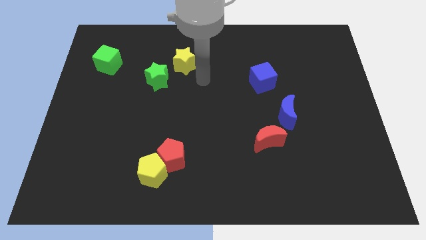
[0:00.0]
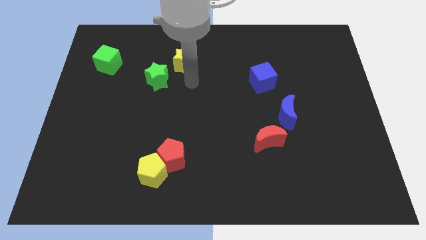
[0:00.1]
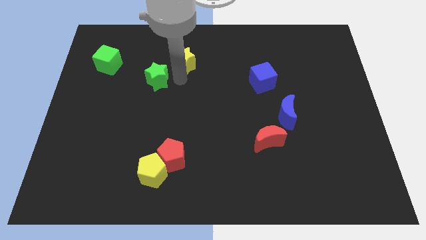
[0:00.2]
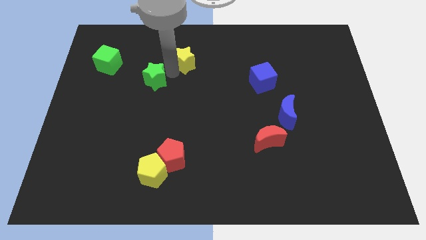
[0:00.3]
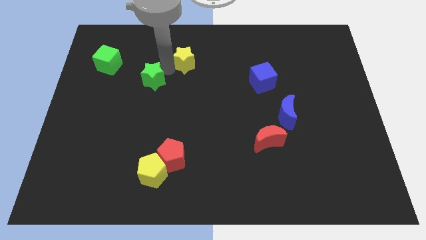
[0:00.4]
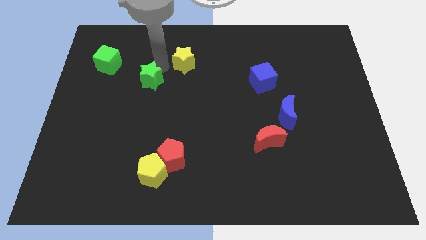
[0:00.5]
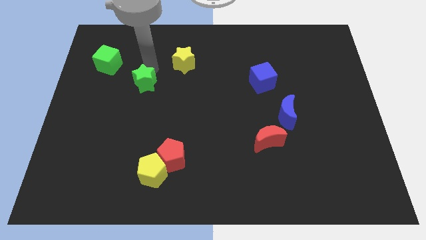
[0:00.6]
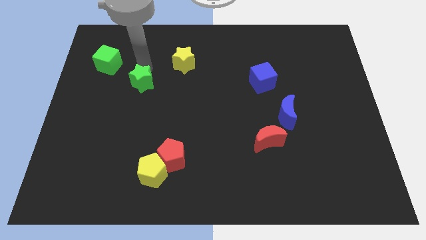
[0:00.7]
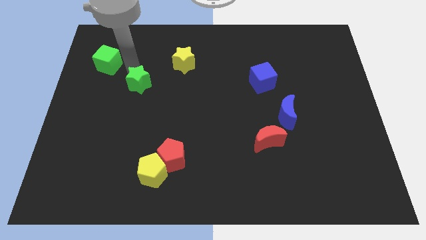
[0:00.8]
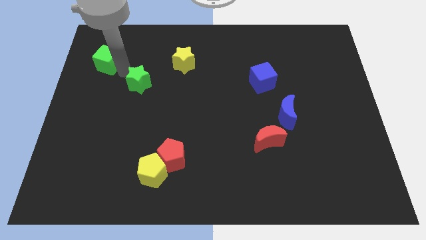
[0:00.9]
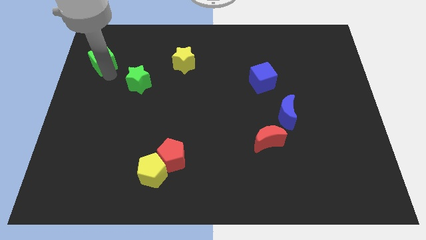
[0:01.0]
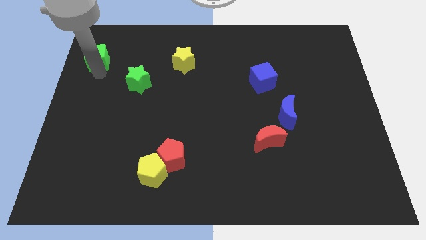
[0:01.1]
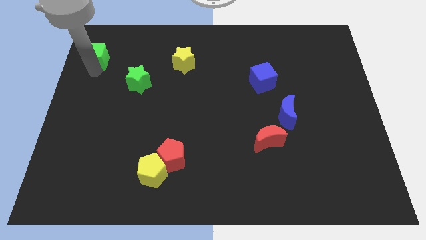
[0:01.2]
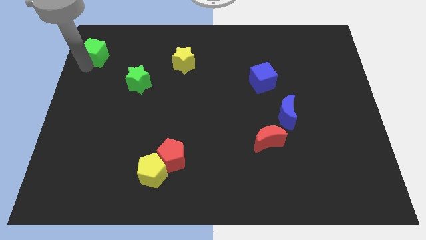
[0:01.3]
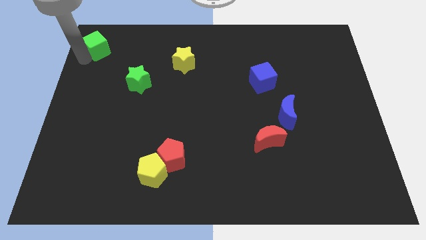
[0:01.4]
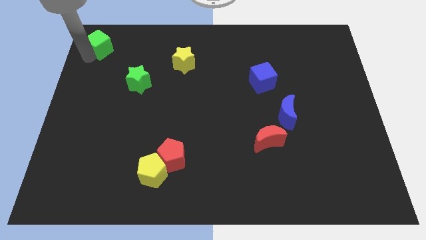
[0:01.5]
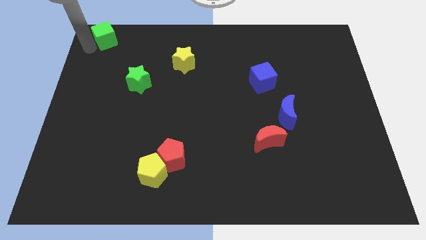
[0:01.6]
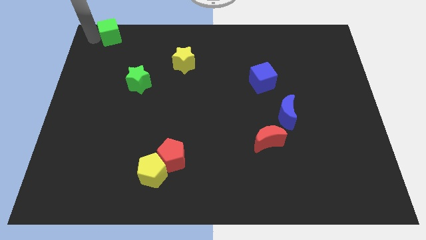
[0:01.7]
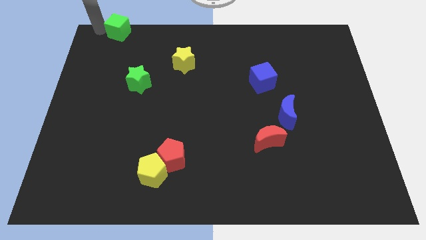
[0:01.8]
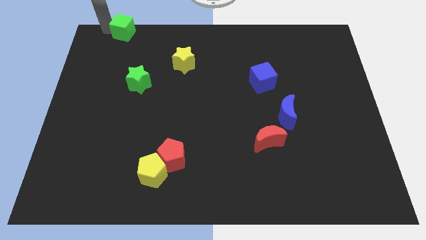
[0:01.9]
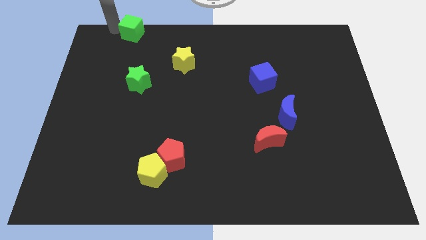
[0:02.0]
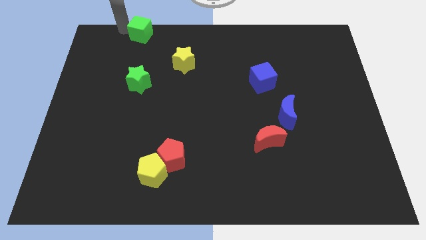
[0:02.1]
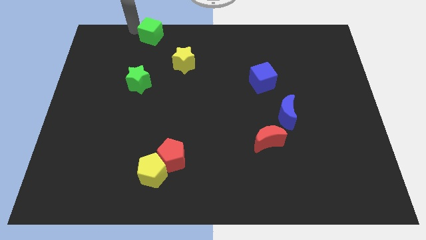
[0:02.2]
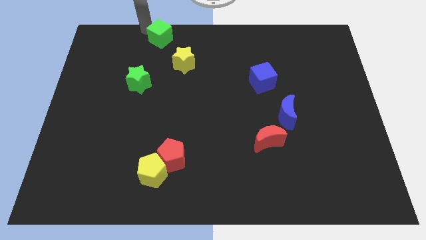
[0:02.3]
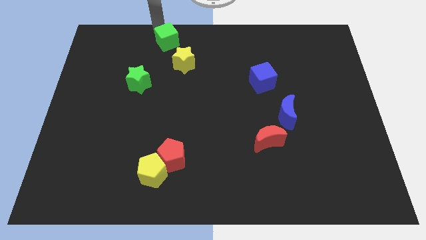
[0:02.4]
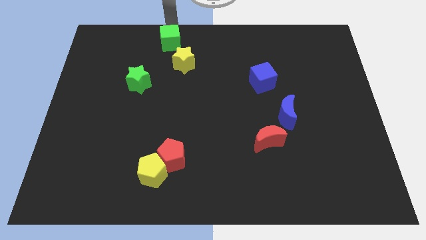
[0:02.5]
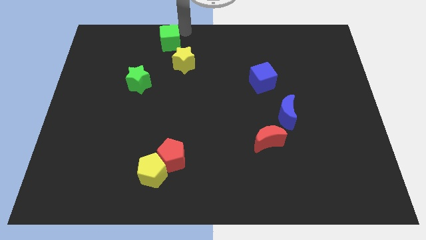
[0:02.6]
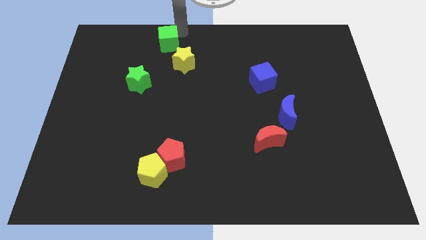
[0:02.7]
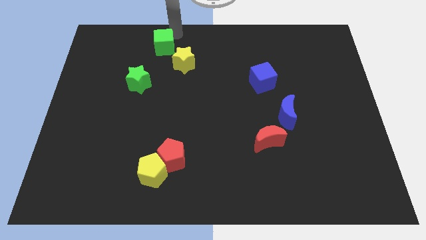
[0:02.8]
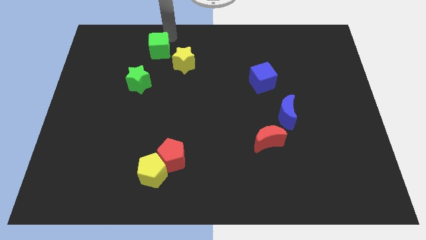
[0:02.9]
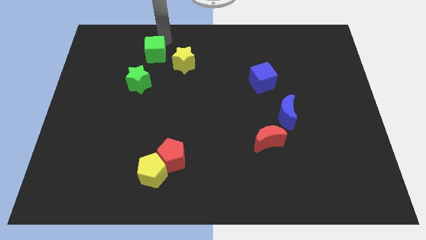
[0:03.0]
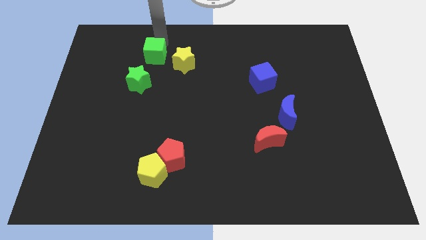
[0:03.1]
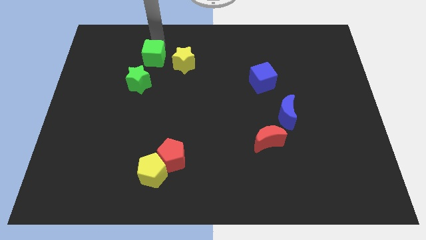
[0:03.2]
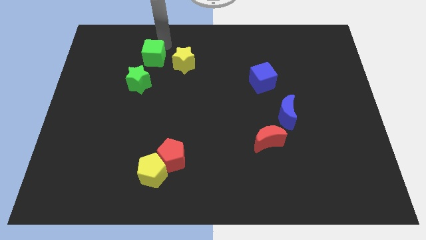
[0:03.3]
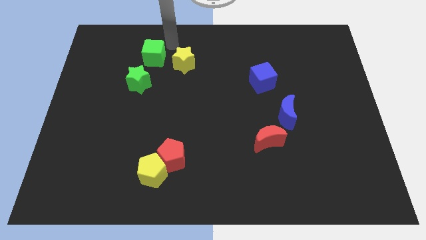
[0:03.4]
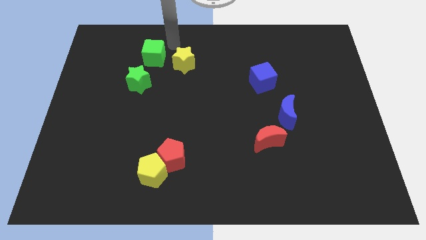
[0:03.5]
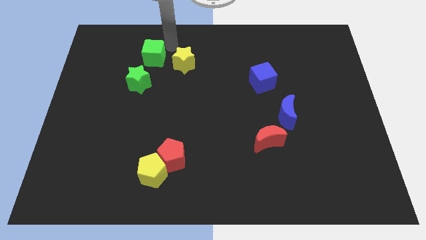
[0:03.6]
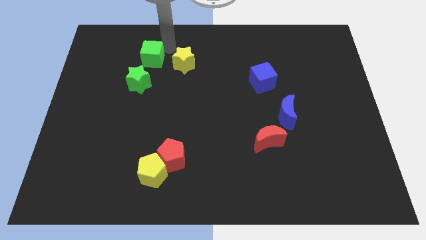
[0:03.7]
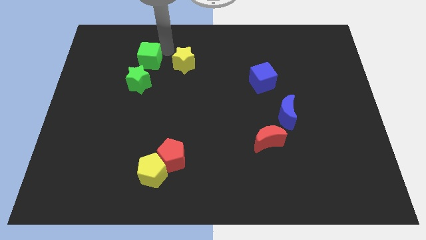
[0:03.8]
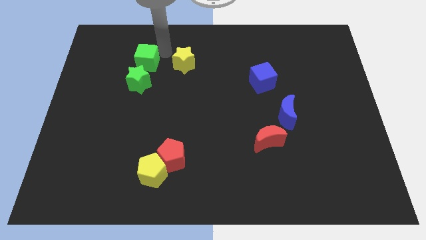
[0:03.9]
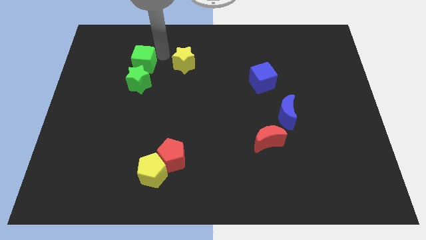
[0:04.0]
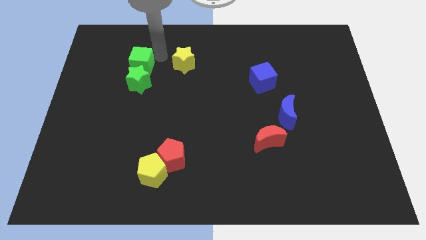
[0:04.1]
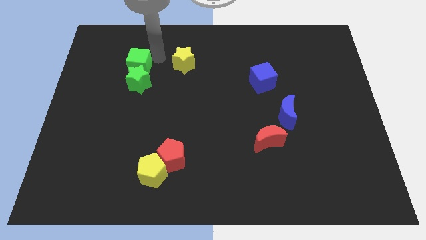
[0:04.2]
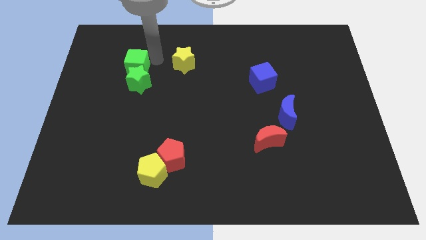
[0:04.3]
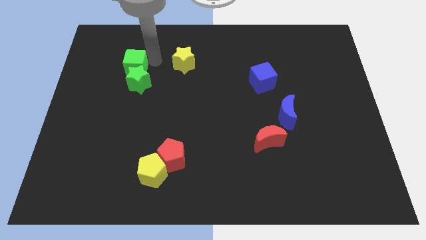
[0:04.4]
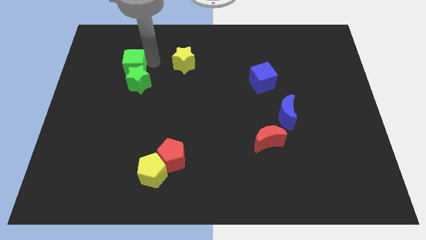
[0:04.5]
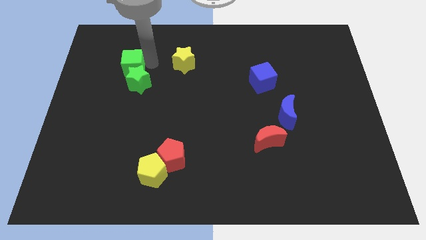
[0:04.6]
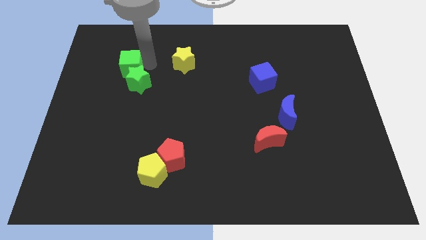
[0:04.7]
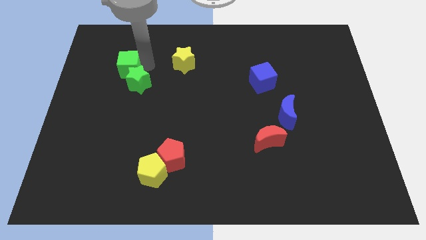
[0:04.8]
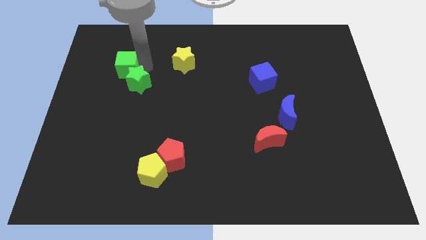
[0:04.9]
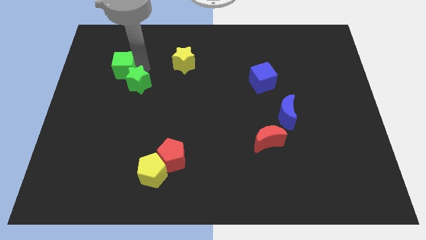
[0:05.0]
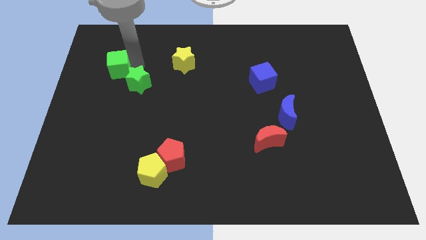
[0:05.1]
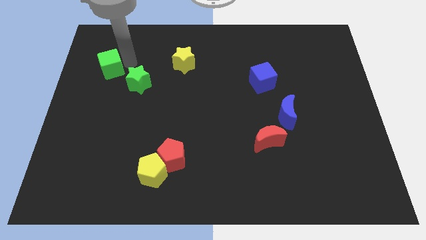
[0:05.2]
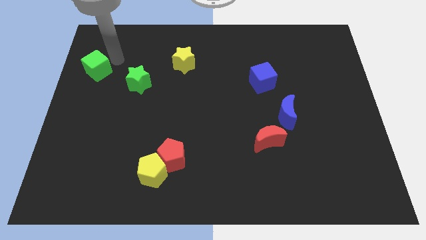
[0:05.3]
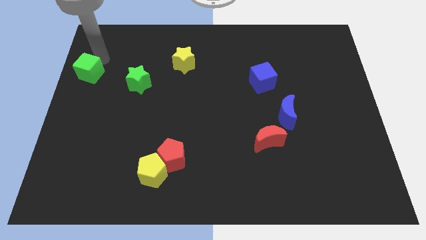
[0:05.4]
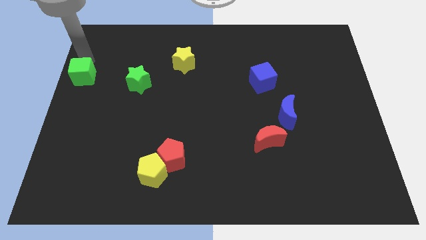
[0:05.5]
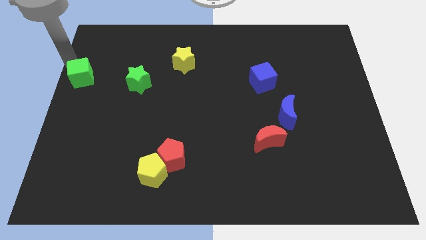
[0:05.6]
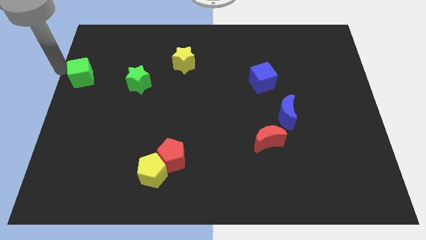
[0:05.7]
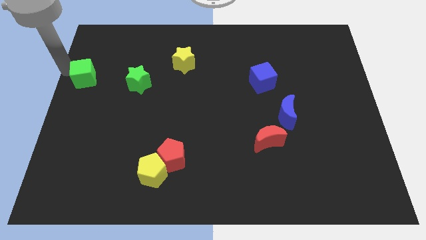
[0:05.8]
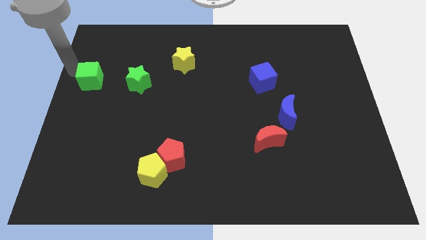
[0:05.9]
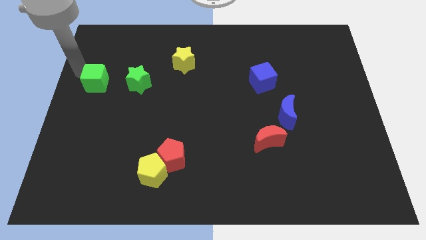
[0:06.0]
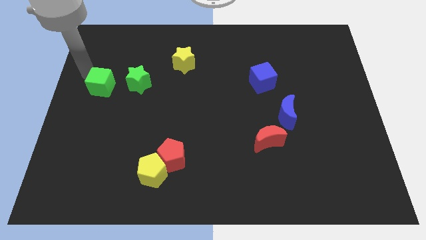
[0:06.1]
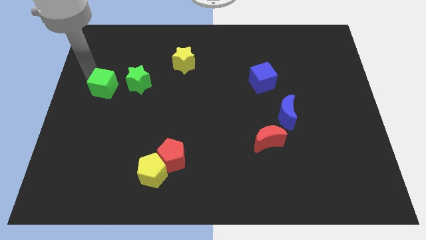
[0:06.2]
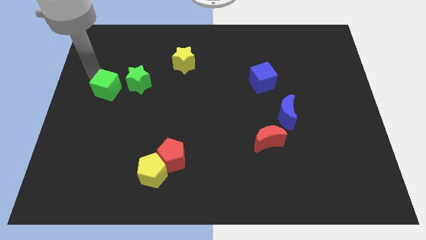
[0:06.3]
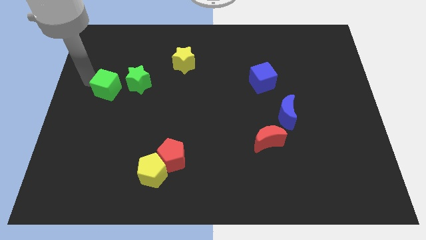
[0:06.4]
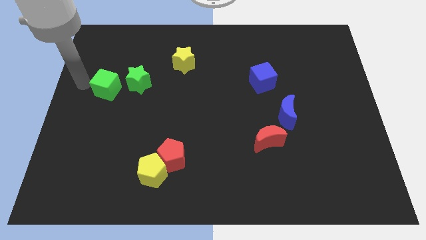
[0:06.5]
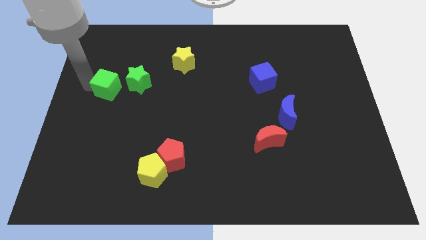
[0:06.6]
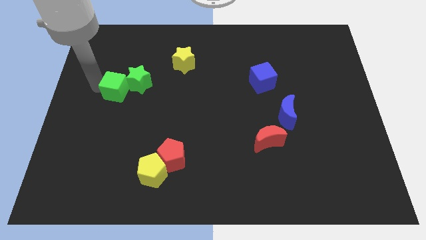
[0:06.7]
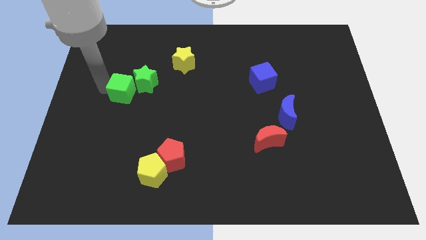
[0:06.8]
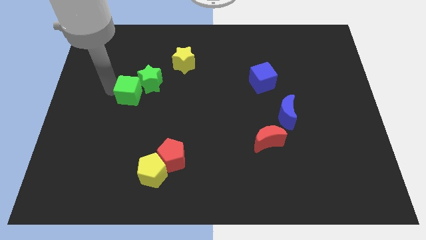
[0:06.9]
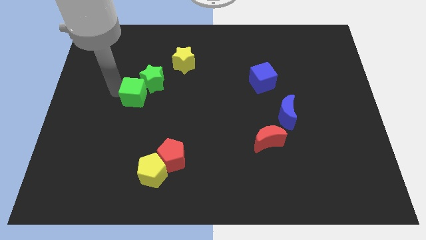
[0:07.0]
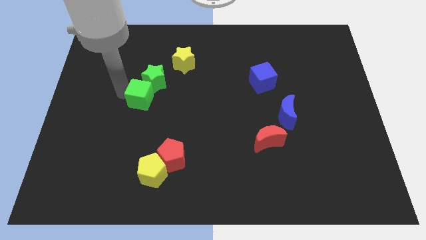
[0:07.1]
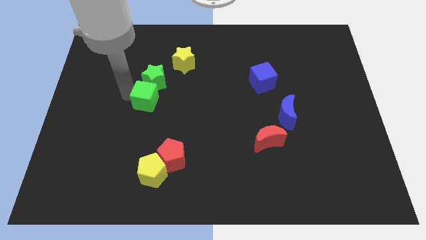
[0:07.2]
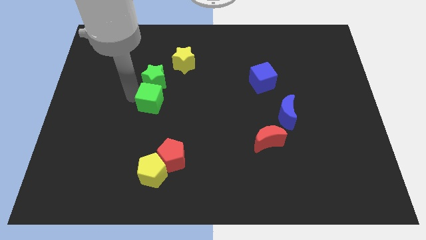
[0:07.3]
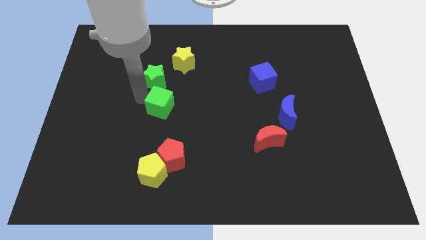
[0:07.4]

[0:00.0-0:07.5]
push the green cube to the top of the red pentagon

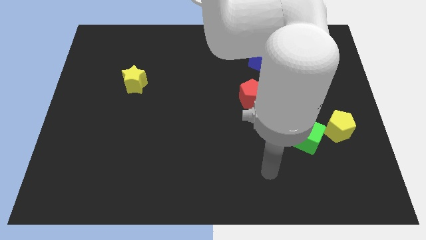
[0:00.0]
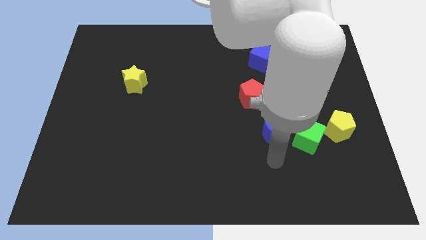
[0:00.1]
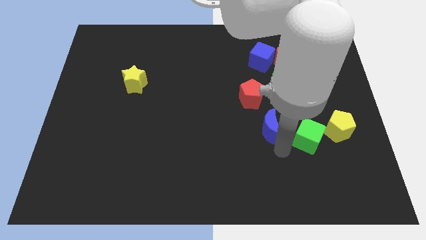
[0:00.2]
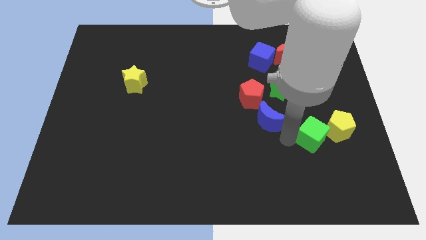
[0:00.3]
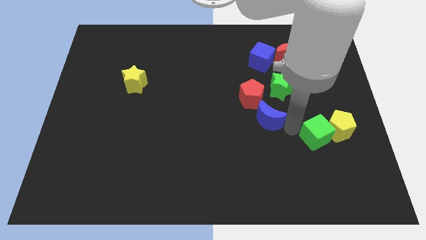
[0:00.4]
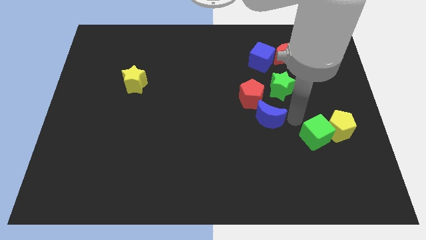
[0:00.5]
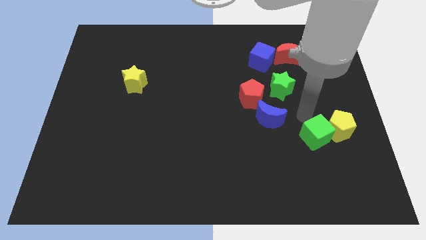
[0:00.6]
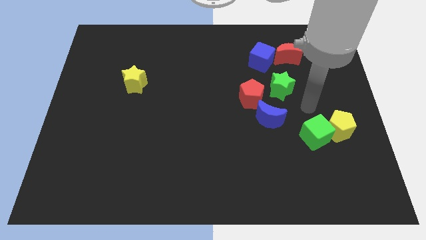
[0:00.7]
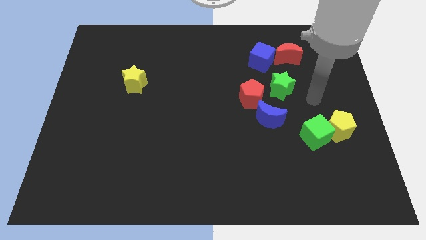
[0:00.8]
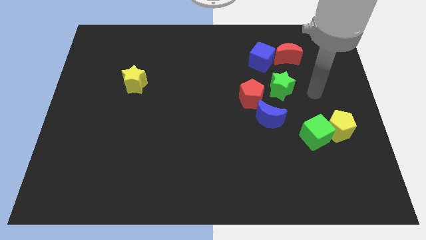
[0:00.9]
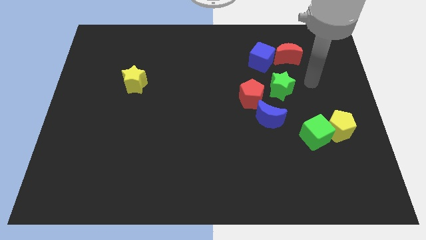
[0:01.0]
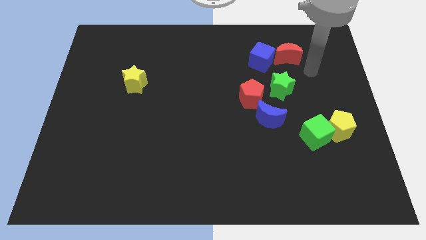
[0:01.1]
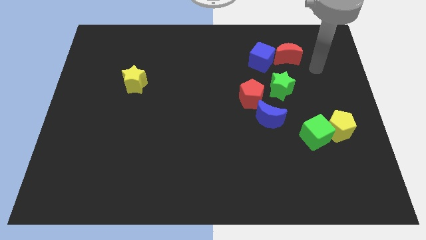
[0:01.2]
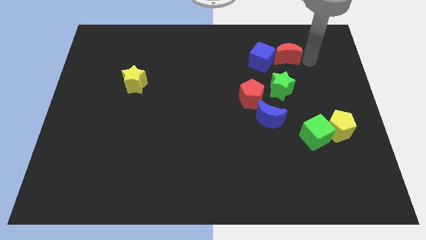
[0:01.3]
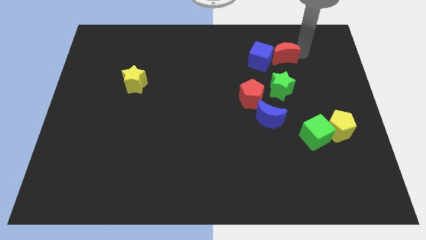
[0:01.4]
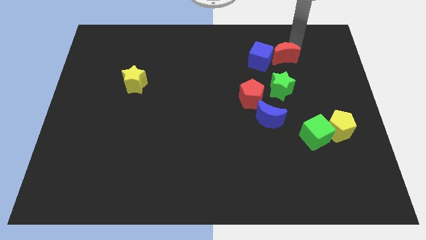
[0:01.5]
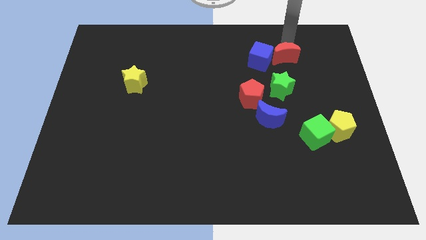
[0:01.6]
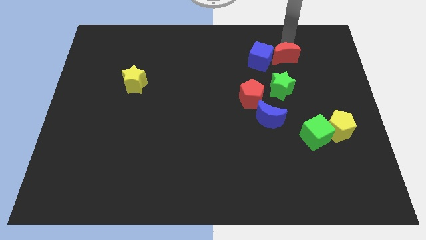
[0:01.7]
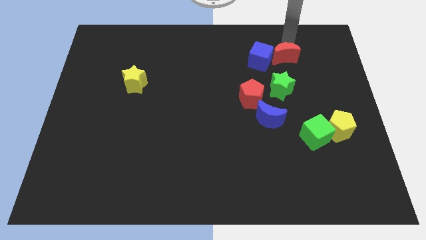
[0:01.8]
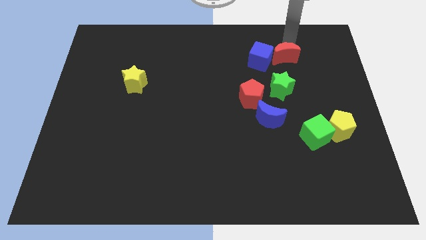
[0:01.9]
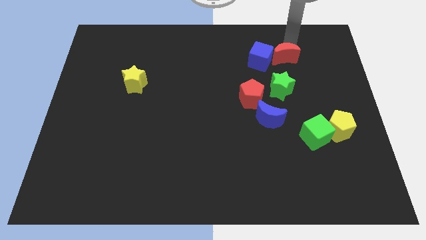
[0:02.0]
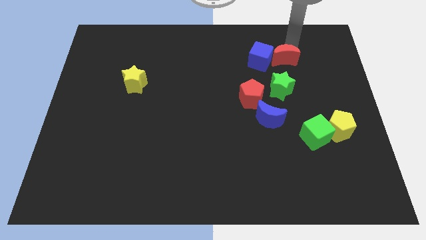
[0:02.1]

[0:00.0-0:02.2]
push the red moon to the bottom right side of the blue cube
